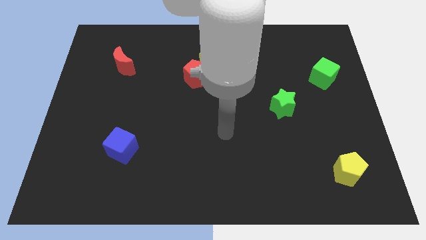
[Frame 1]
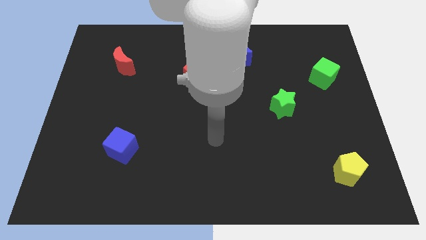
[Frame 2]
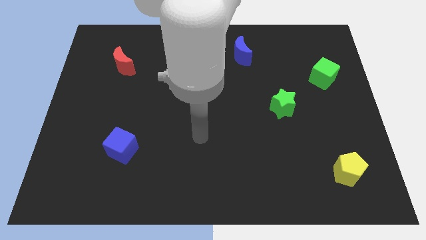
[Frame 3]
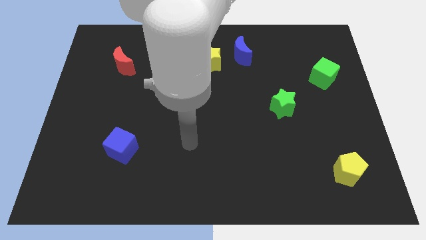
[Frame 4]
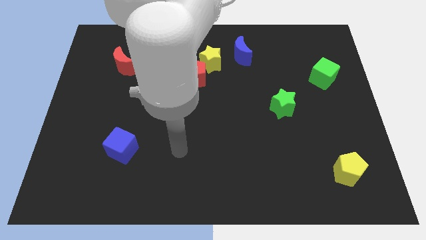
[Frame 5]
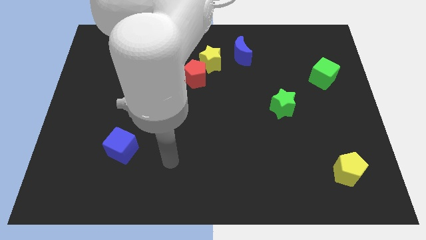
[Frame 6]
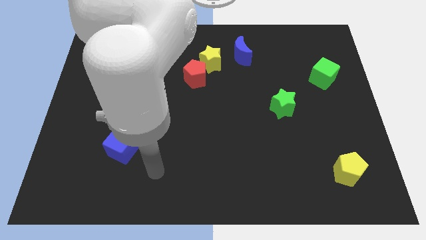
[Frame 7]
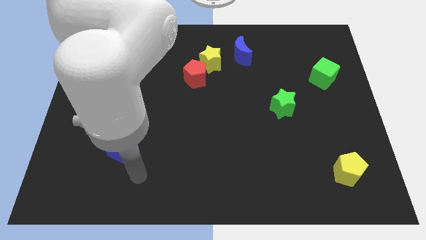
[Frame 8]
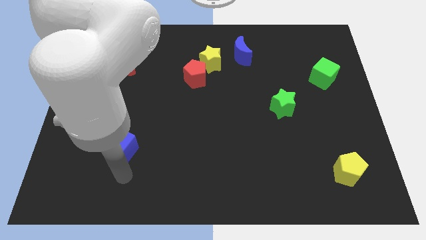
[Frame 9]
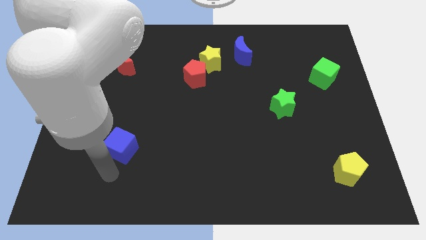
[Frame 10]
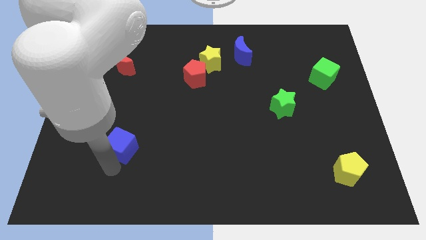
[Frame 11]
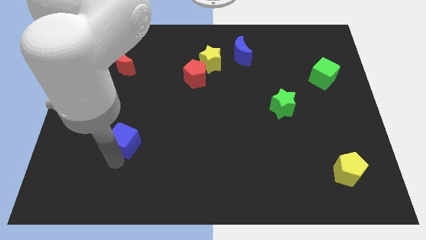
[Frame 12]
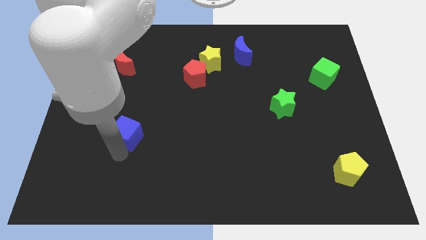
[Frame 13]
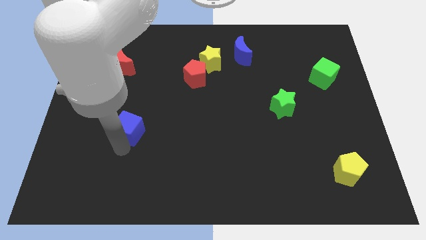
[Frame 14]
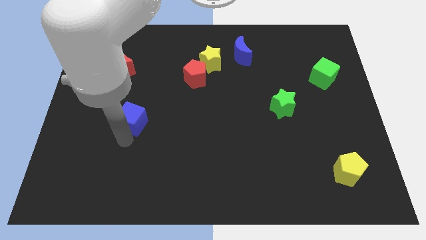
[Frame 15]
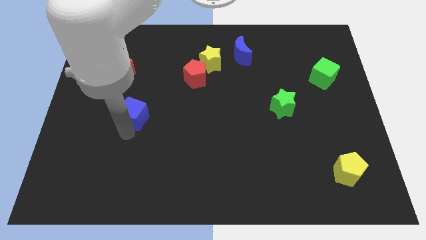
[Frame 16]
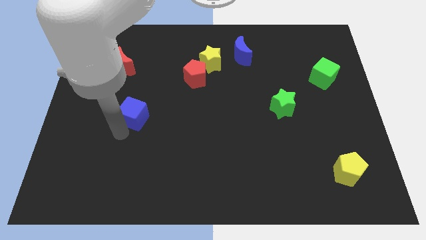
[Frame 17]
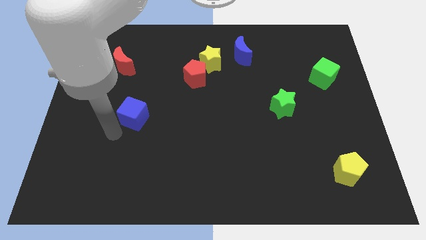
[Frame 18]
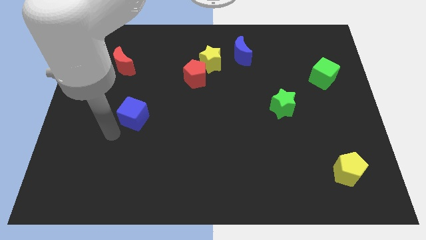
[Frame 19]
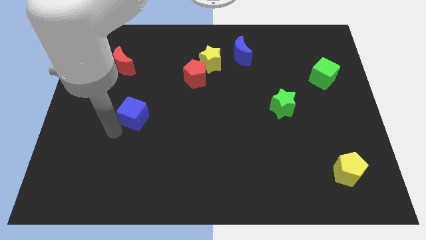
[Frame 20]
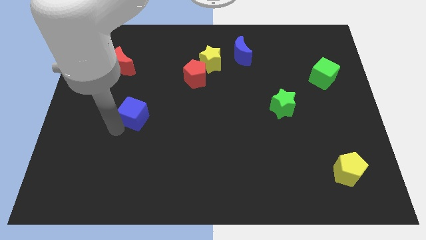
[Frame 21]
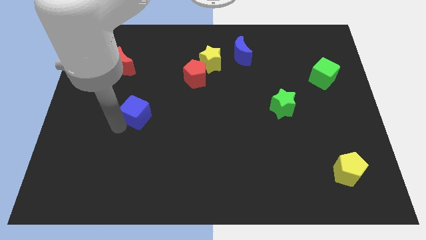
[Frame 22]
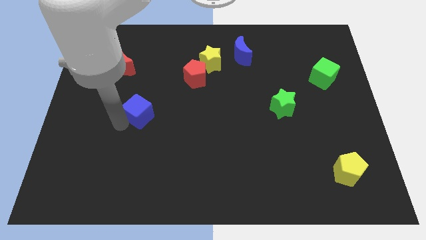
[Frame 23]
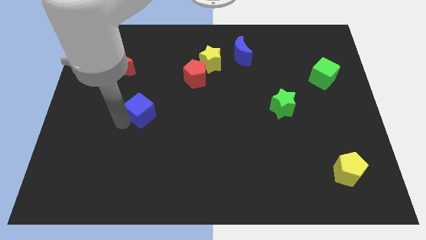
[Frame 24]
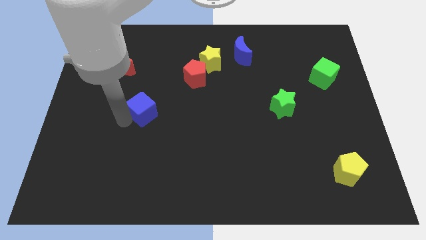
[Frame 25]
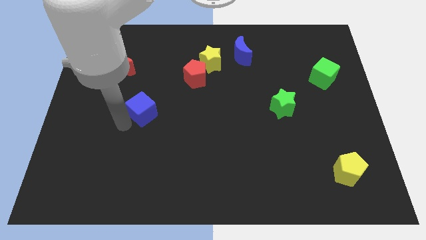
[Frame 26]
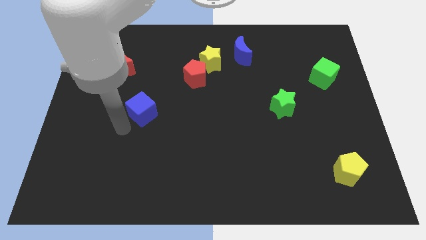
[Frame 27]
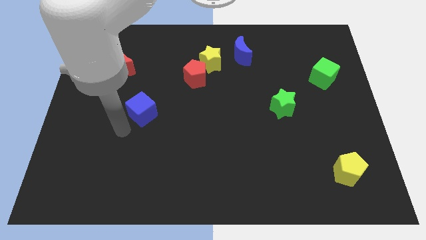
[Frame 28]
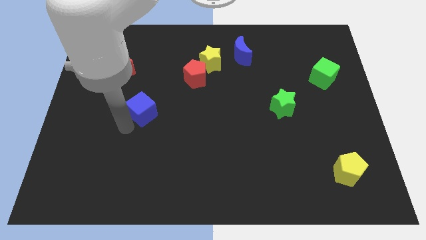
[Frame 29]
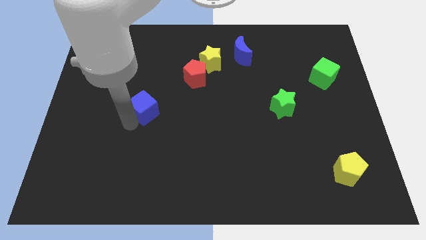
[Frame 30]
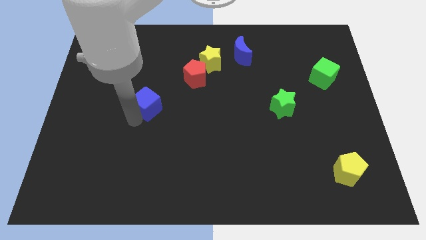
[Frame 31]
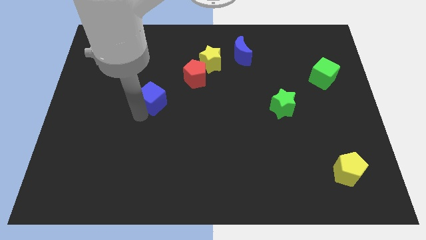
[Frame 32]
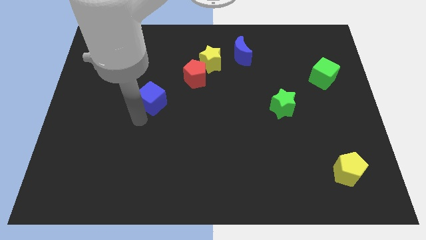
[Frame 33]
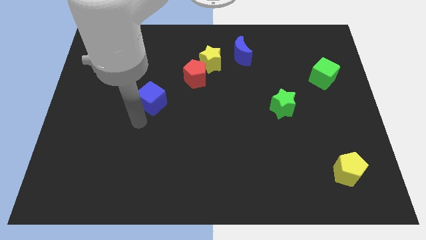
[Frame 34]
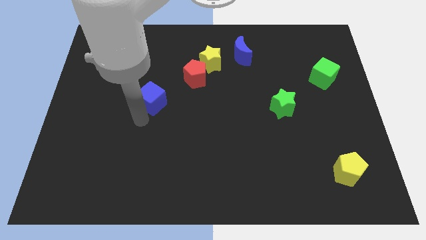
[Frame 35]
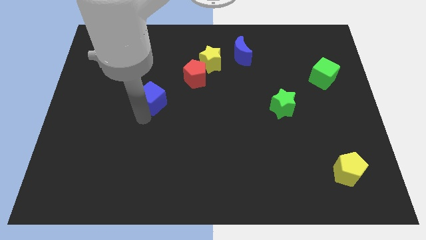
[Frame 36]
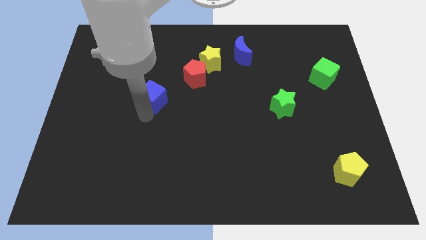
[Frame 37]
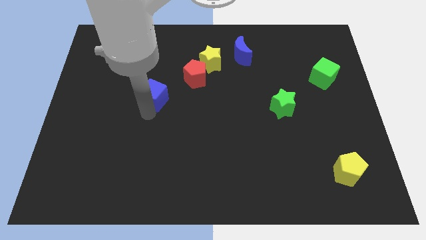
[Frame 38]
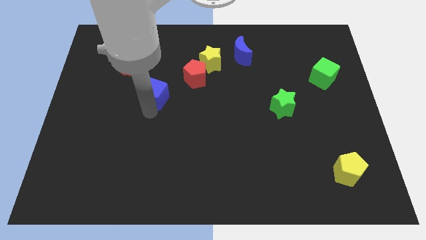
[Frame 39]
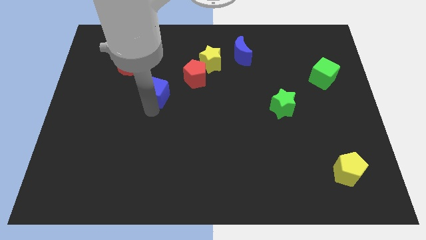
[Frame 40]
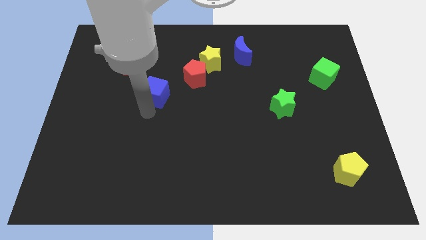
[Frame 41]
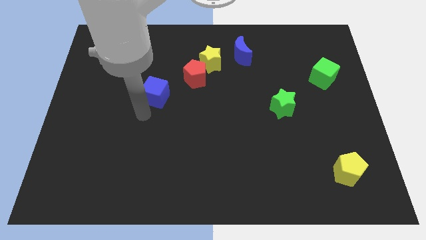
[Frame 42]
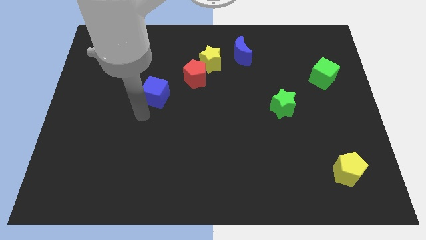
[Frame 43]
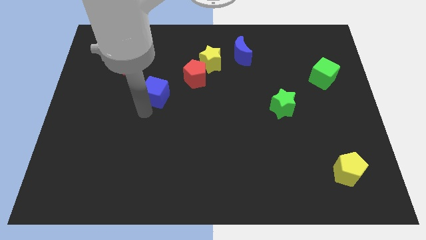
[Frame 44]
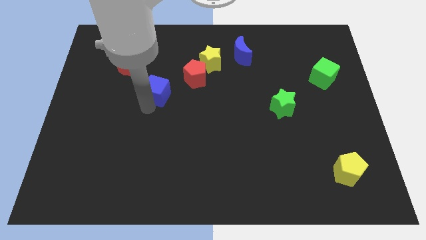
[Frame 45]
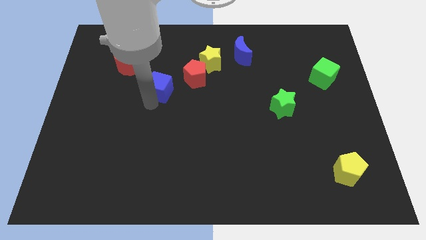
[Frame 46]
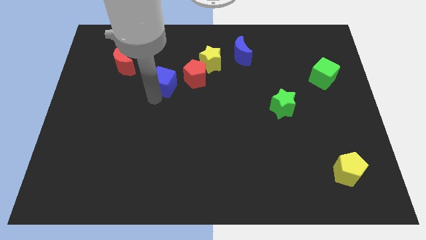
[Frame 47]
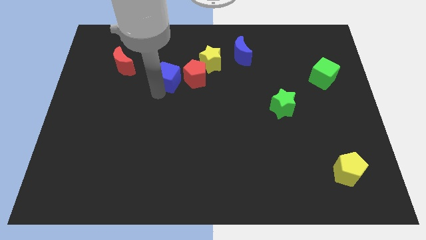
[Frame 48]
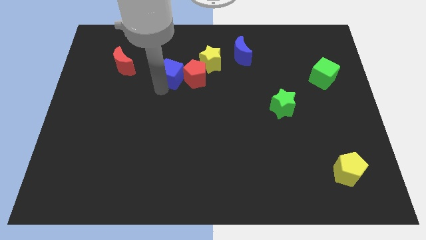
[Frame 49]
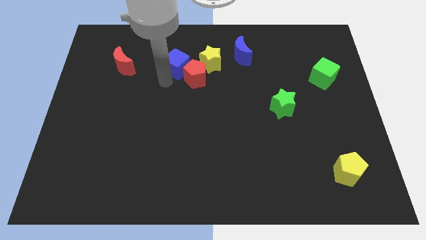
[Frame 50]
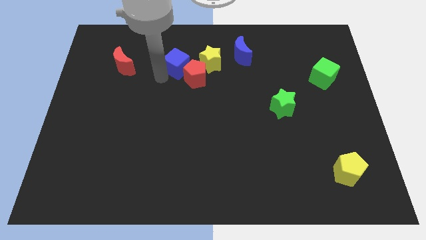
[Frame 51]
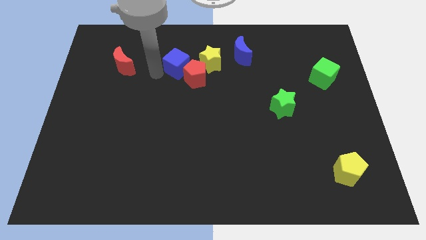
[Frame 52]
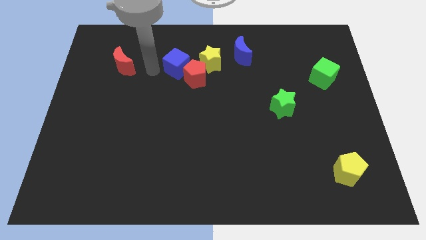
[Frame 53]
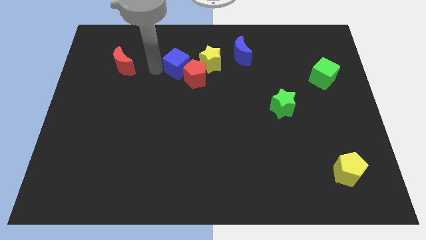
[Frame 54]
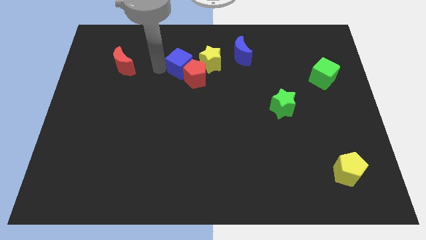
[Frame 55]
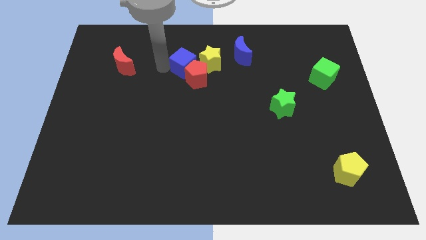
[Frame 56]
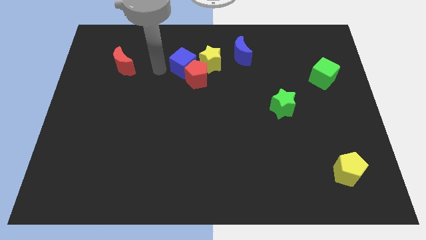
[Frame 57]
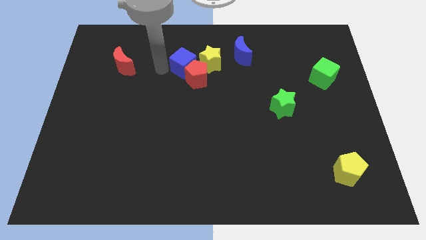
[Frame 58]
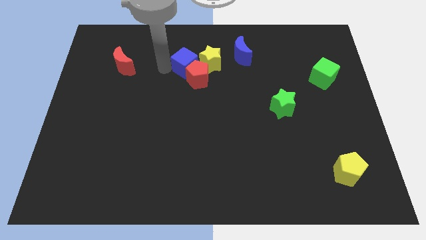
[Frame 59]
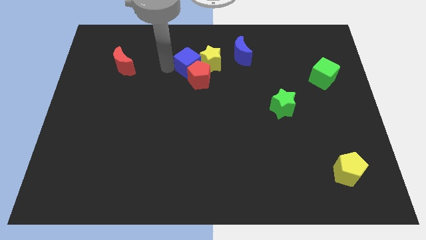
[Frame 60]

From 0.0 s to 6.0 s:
slide the blue cube to the yellow star

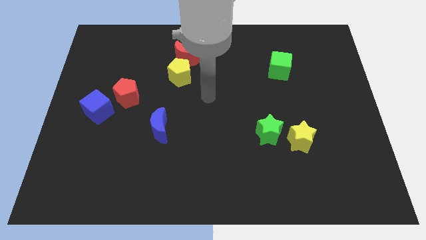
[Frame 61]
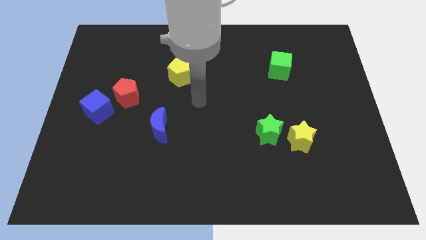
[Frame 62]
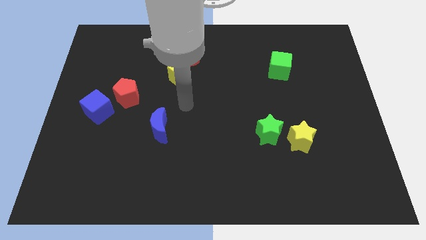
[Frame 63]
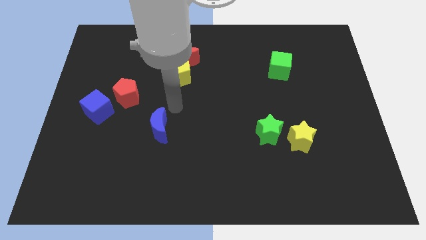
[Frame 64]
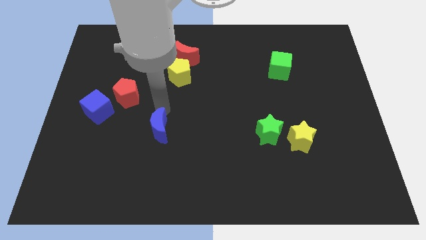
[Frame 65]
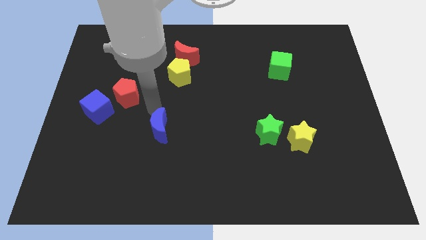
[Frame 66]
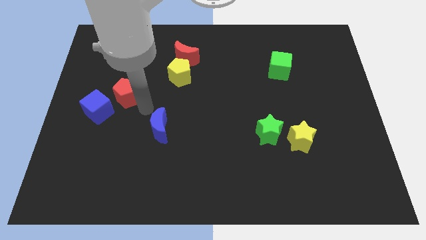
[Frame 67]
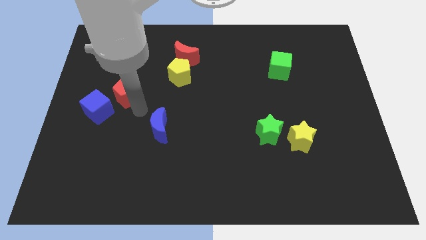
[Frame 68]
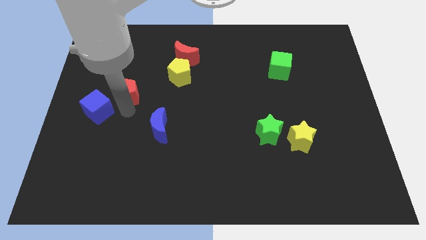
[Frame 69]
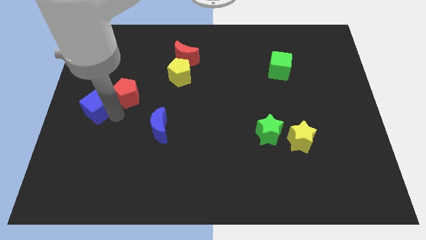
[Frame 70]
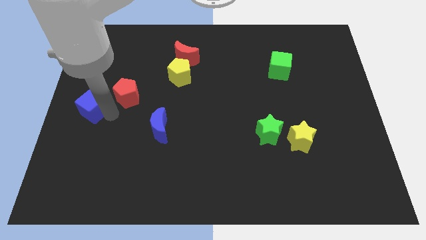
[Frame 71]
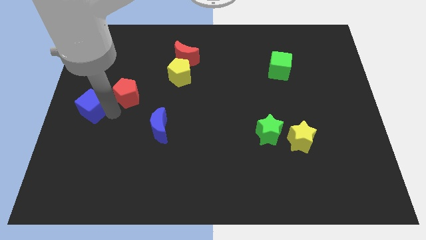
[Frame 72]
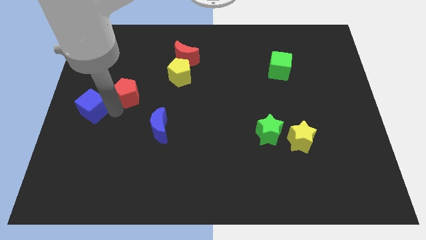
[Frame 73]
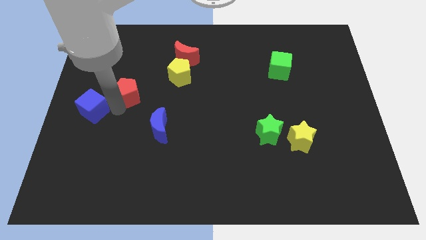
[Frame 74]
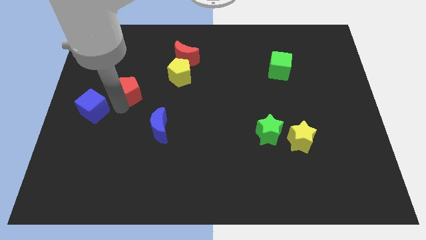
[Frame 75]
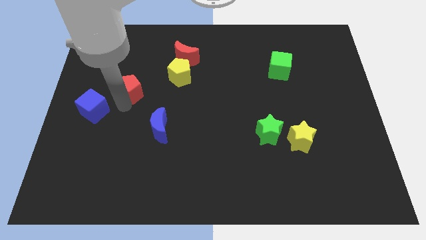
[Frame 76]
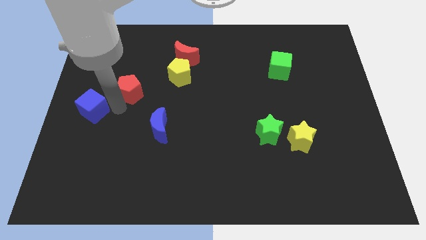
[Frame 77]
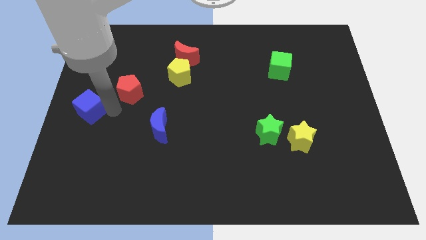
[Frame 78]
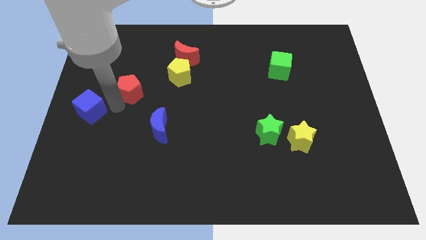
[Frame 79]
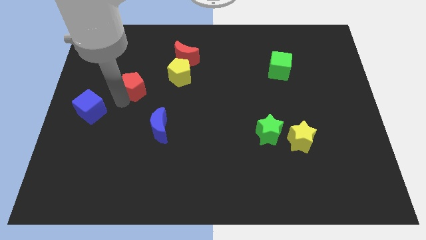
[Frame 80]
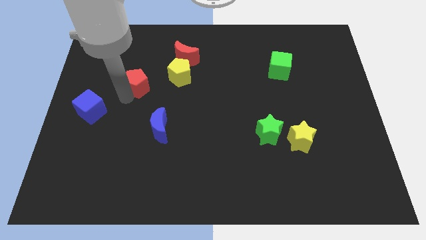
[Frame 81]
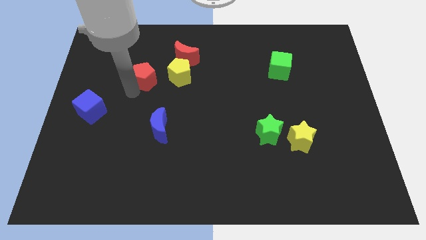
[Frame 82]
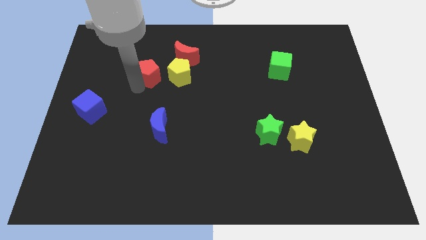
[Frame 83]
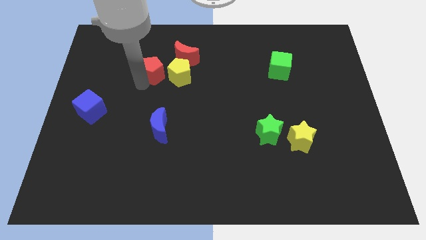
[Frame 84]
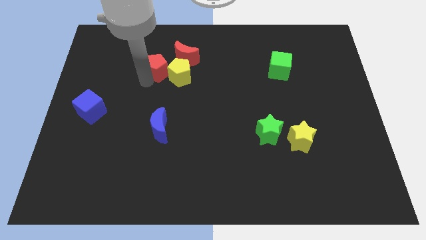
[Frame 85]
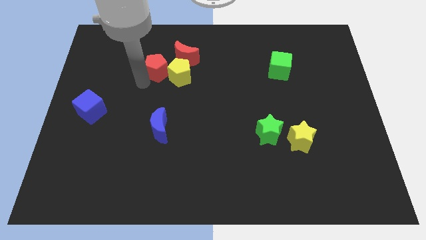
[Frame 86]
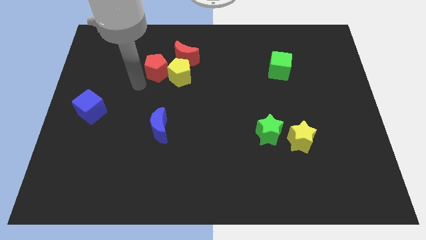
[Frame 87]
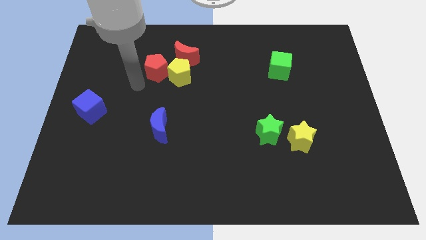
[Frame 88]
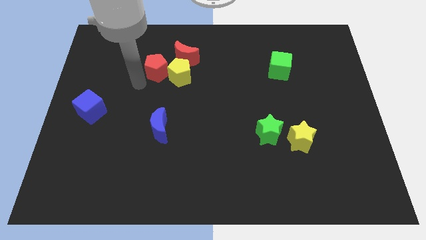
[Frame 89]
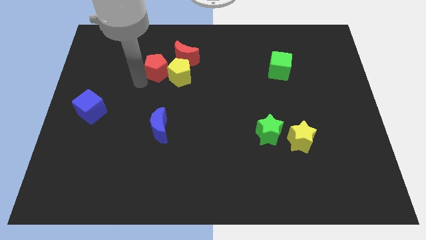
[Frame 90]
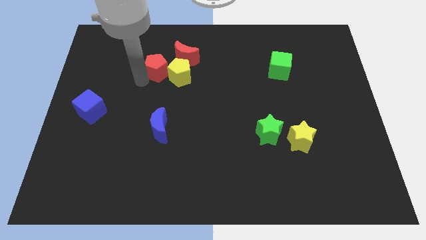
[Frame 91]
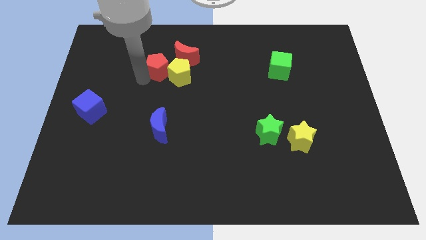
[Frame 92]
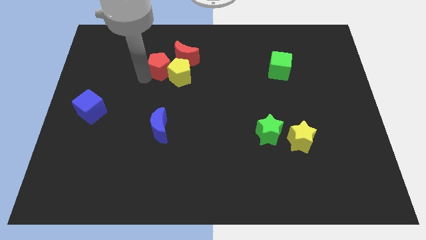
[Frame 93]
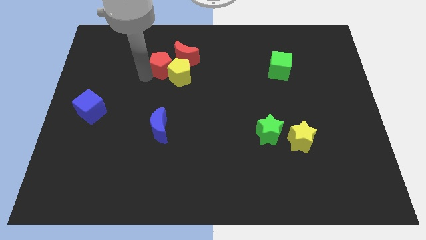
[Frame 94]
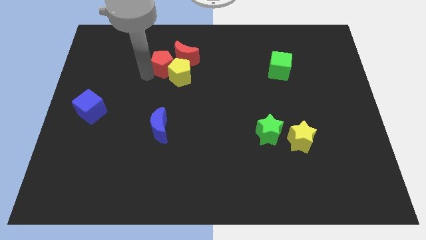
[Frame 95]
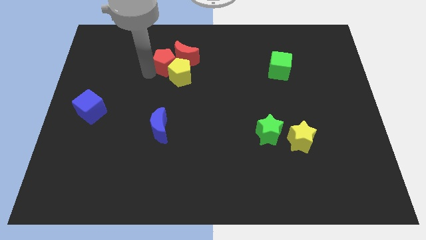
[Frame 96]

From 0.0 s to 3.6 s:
move the red pentagon towards the red moon
